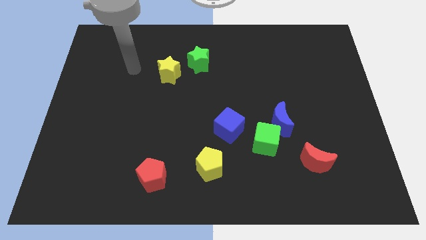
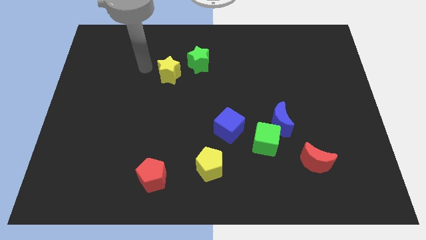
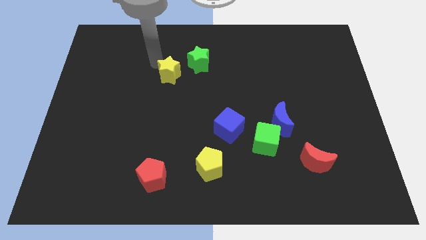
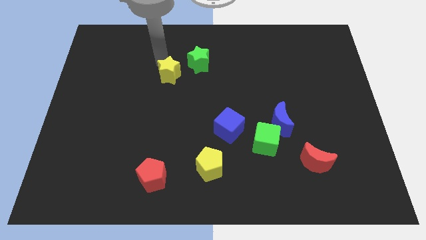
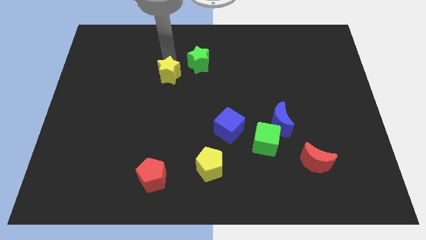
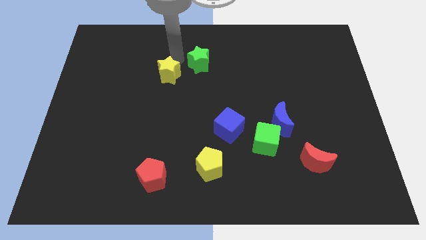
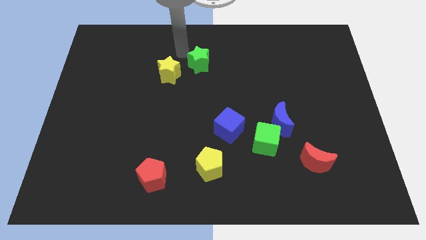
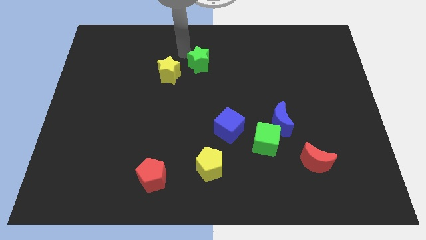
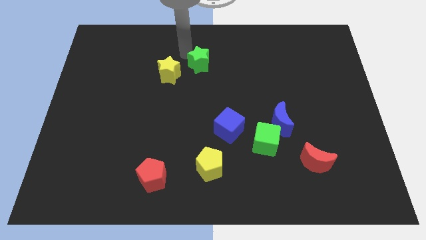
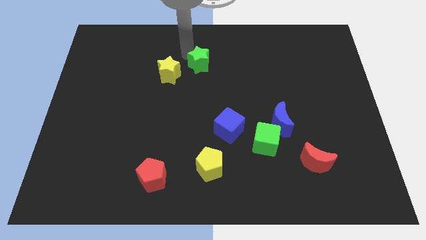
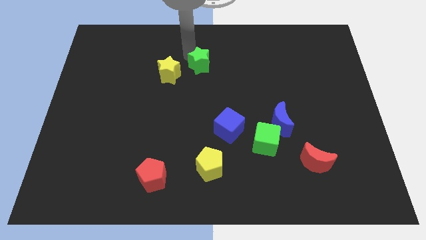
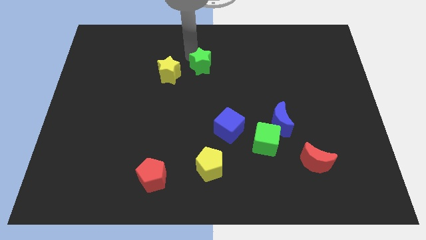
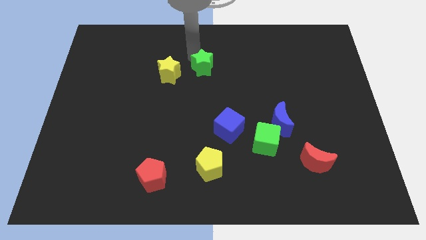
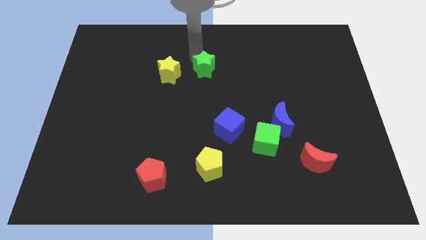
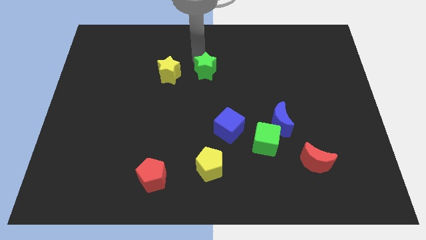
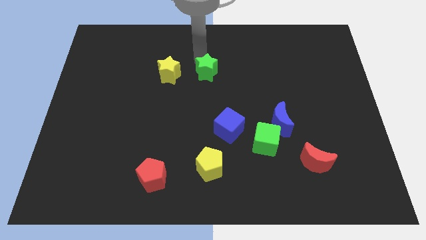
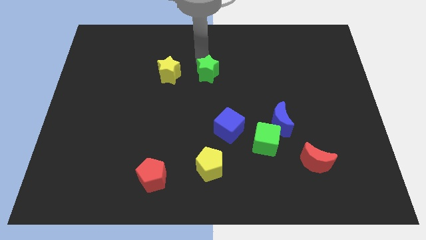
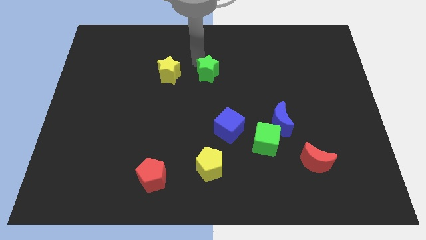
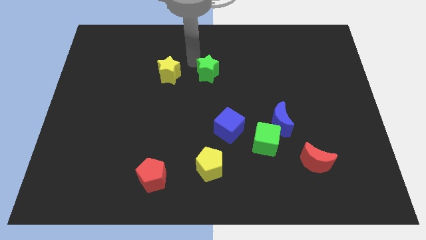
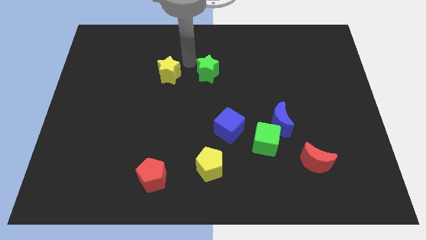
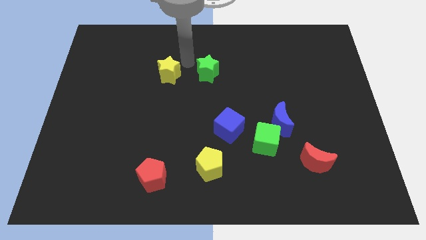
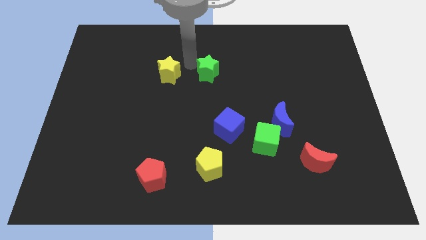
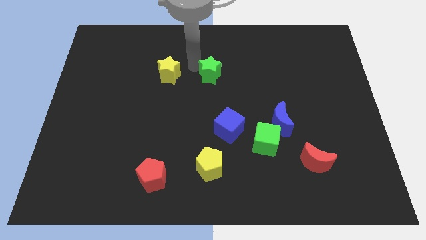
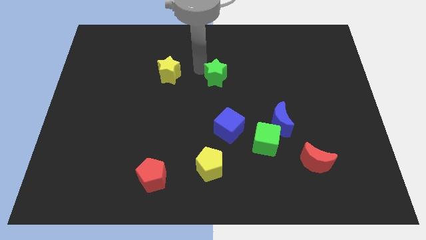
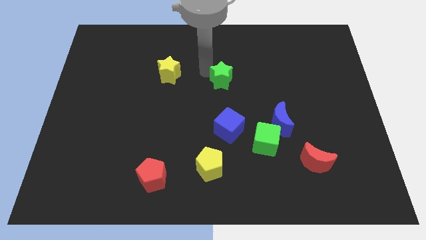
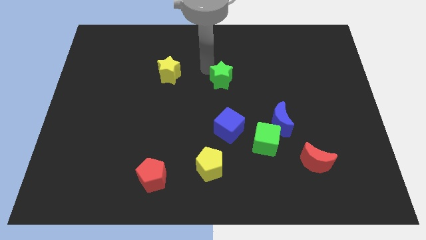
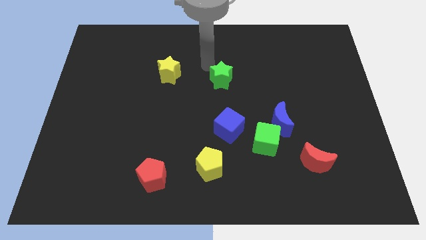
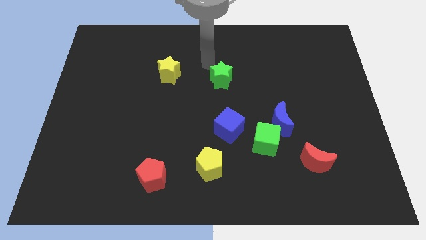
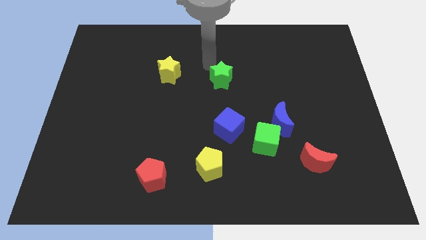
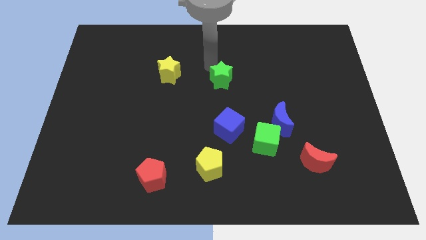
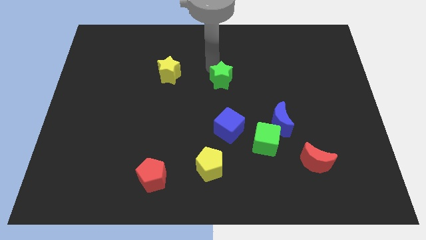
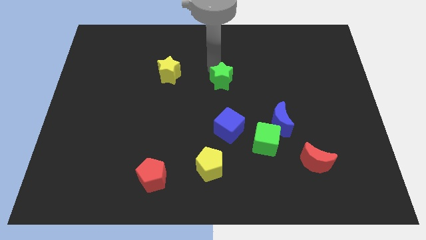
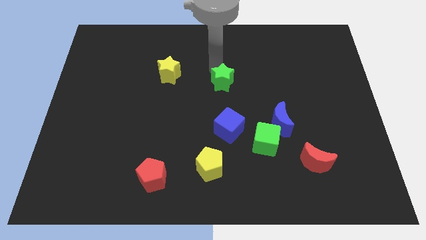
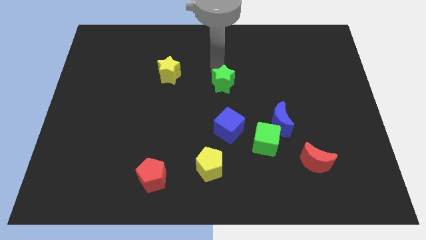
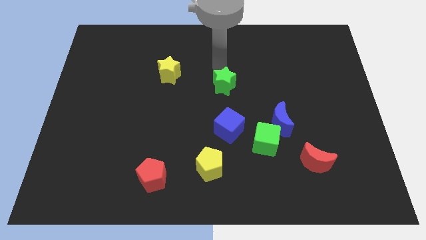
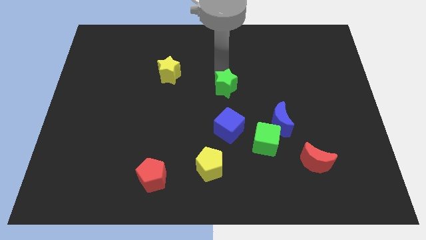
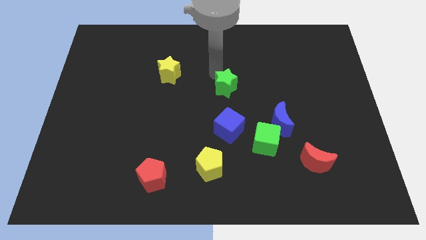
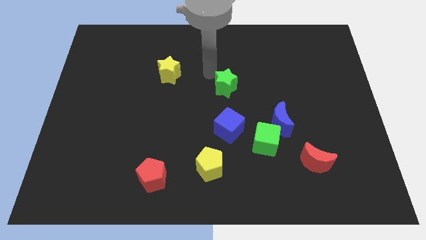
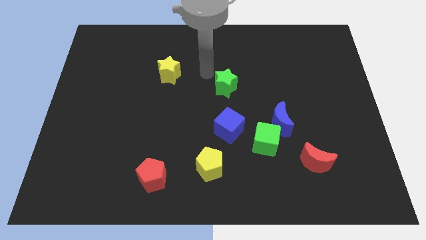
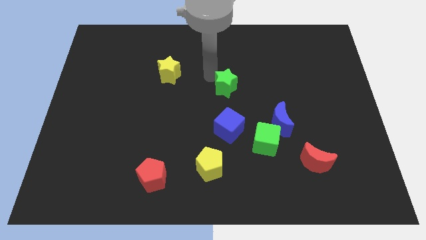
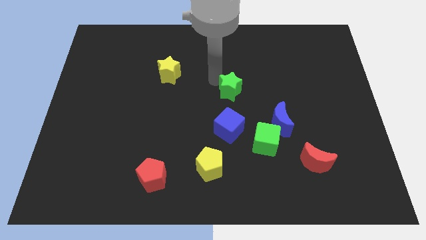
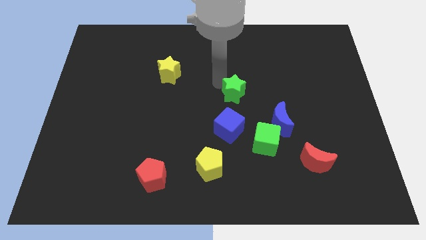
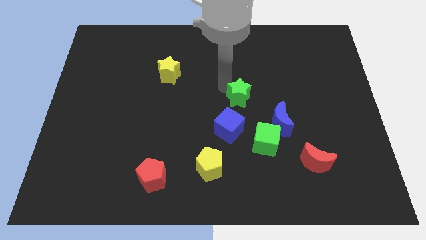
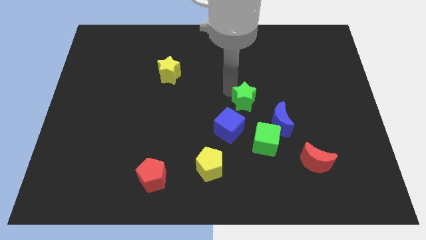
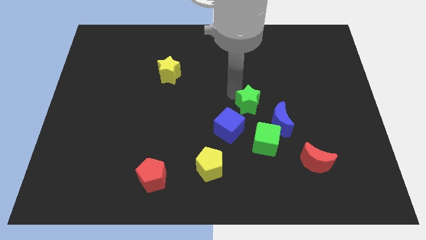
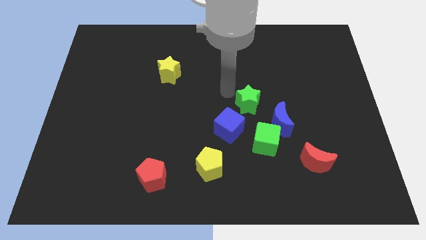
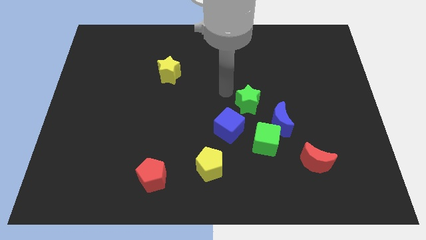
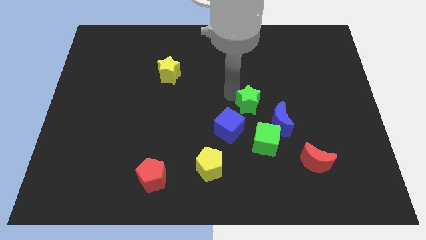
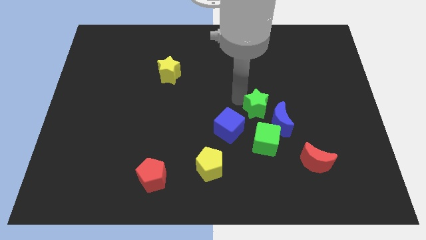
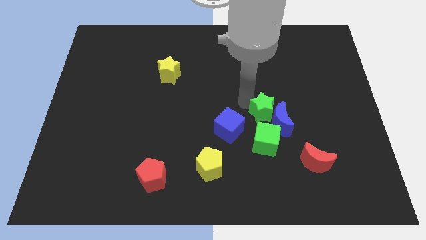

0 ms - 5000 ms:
slide the green star to the blue moon

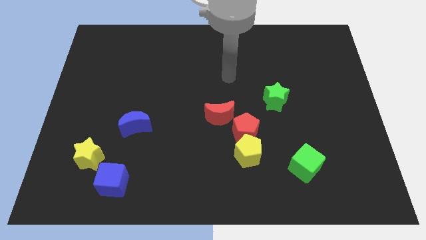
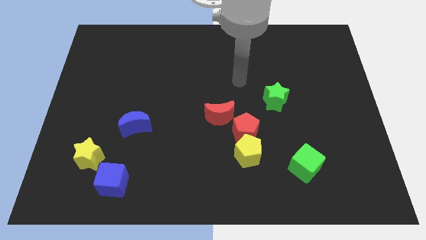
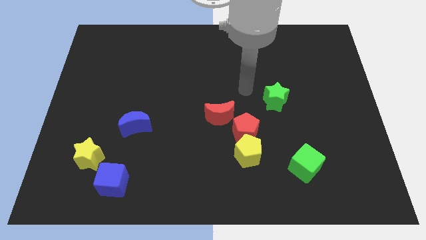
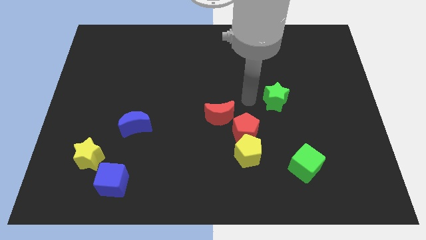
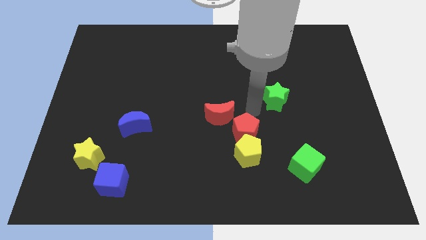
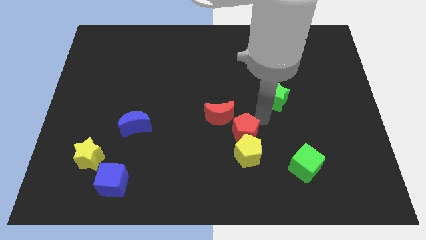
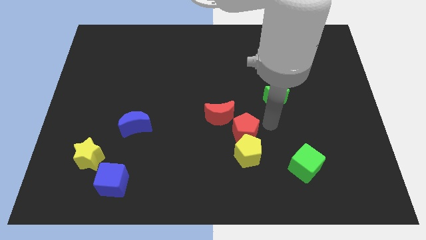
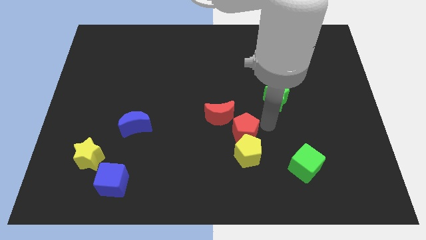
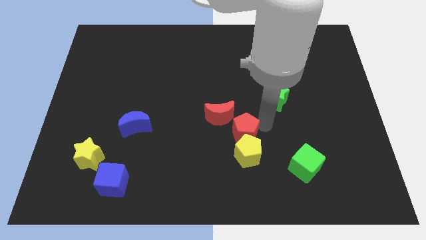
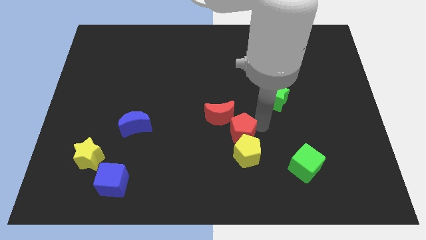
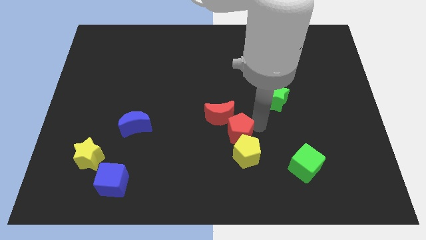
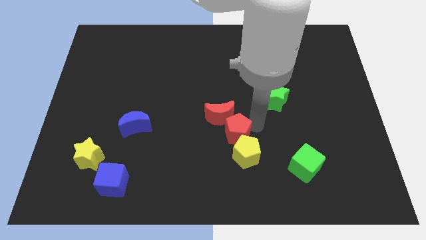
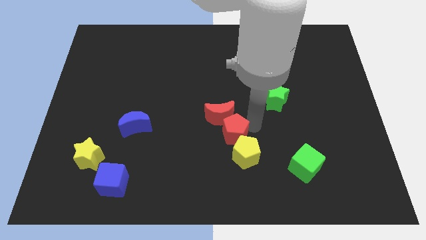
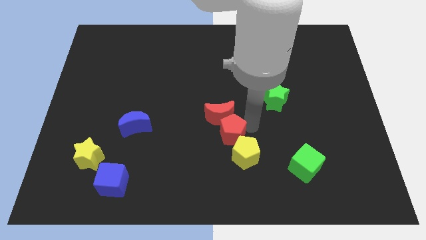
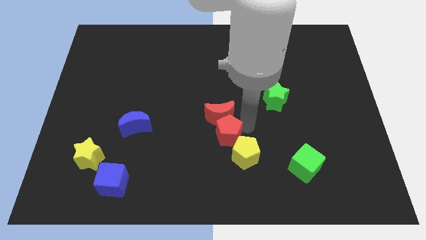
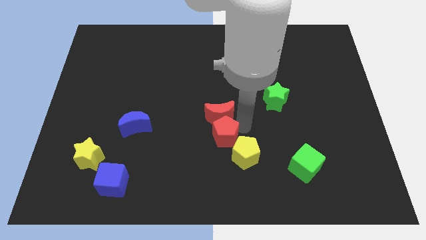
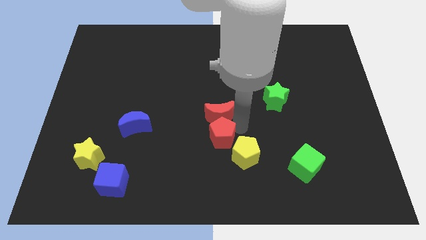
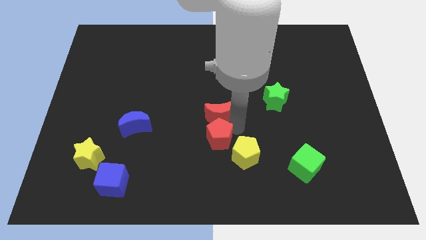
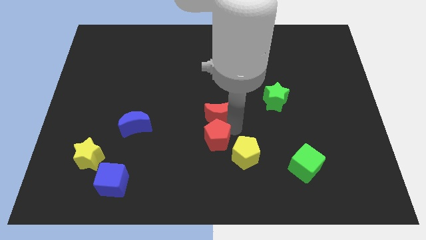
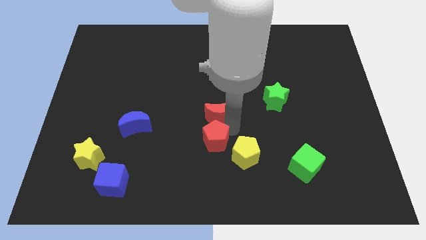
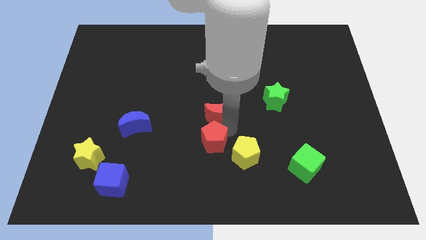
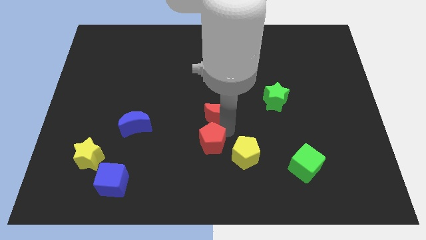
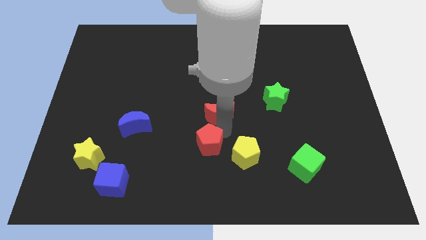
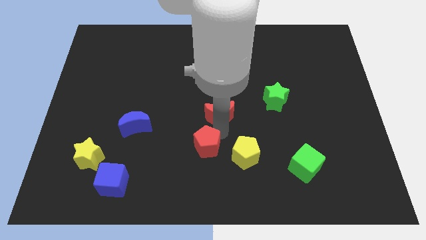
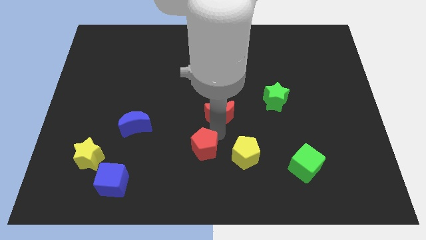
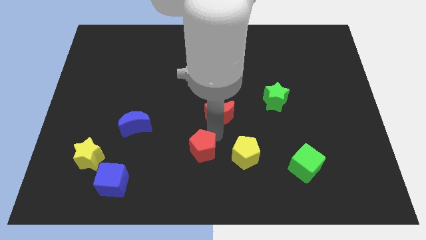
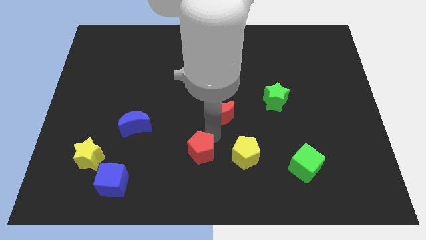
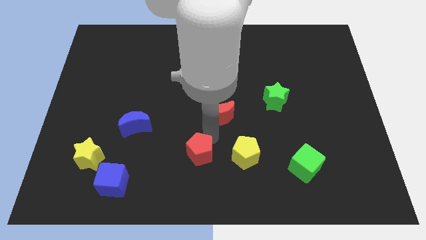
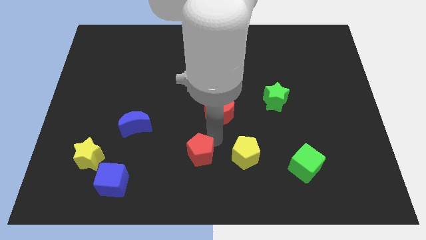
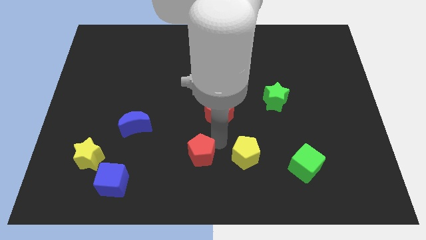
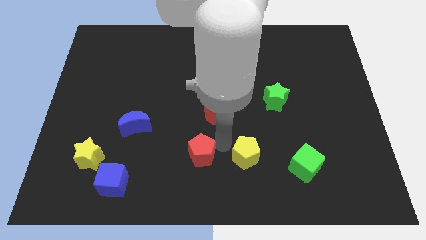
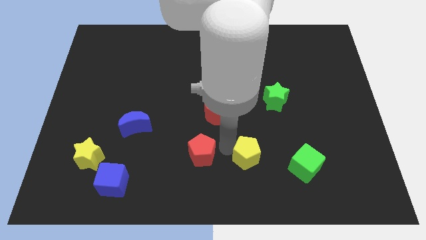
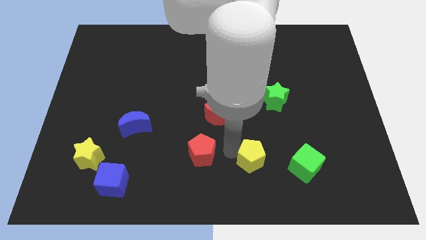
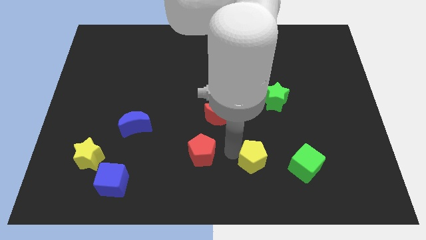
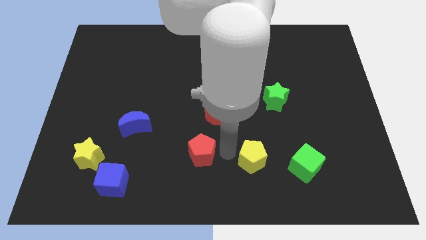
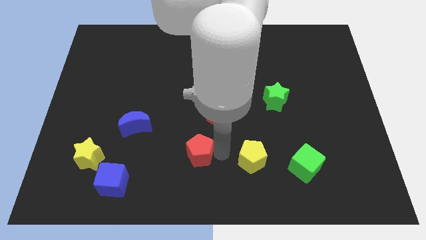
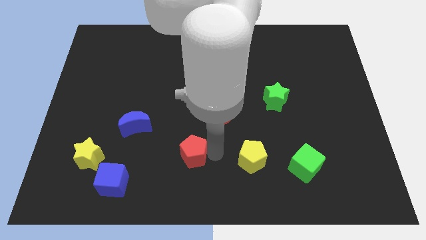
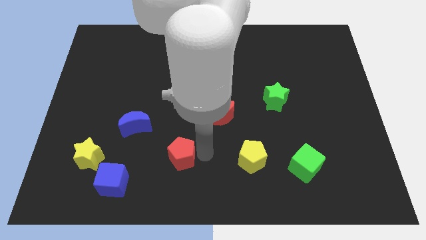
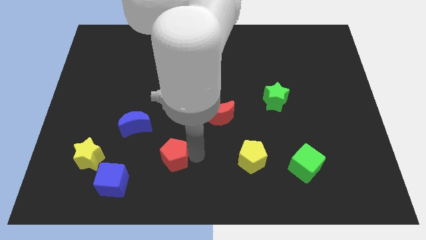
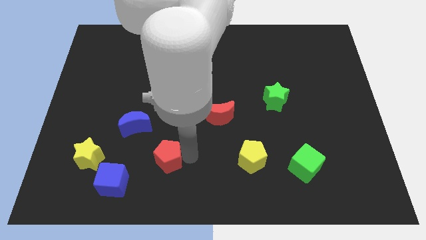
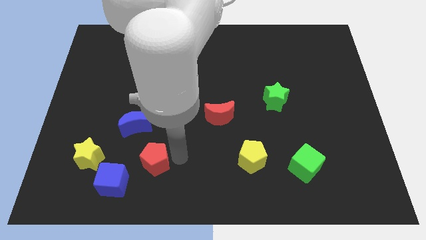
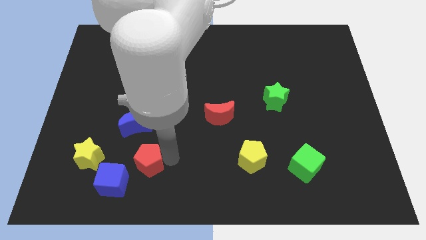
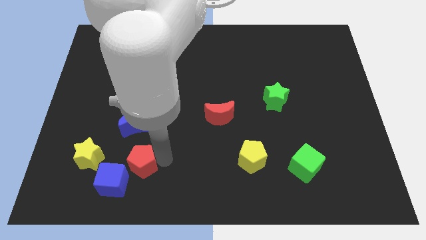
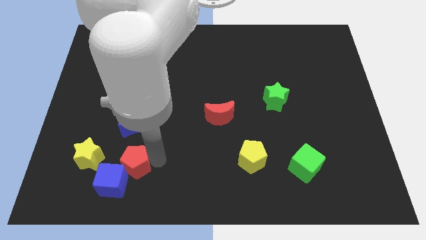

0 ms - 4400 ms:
slide the red pentagon towards the blue cube
